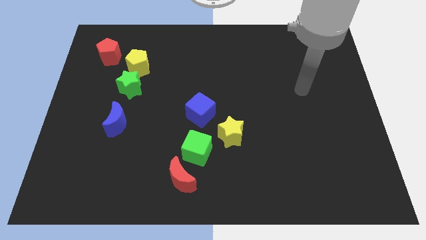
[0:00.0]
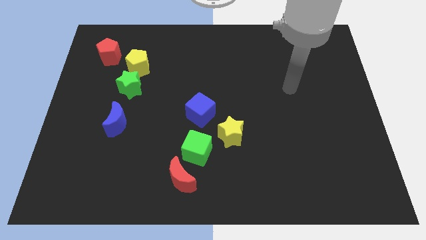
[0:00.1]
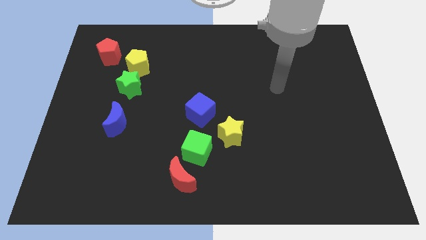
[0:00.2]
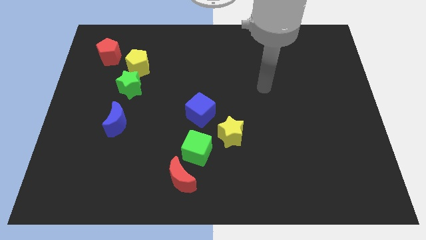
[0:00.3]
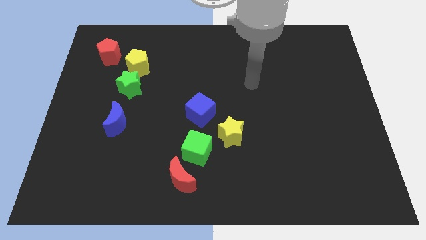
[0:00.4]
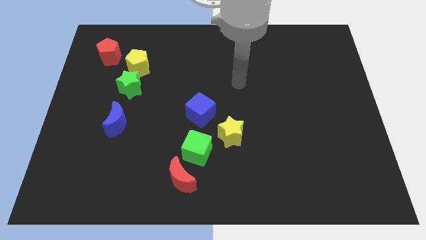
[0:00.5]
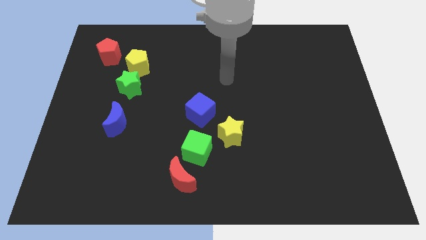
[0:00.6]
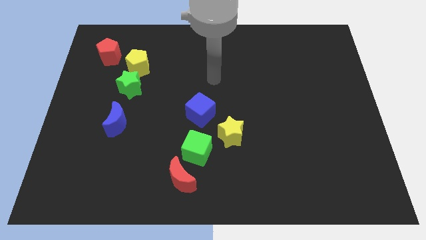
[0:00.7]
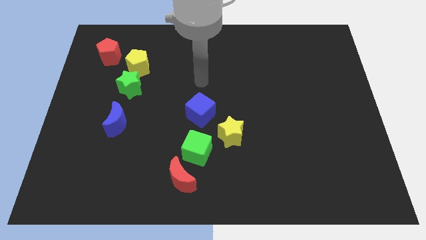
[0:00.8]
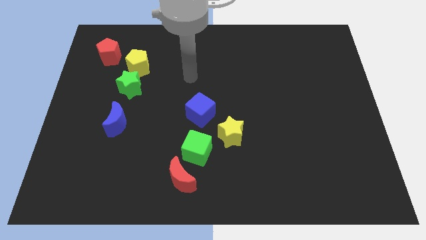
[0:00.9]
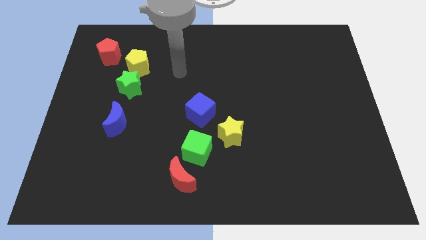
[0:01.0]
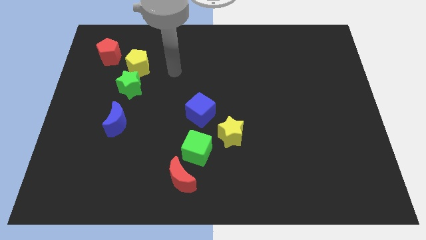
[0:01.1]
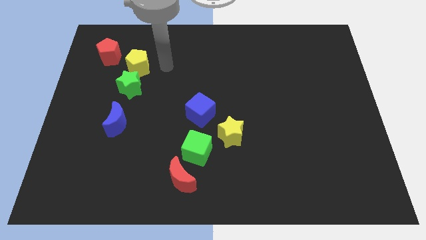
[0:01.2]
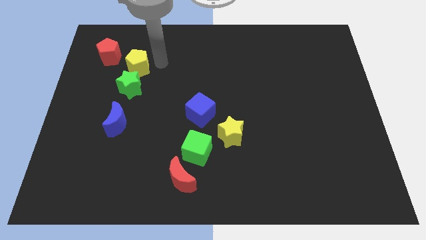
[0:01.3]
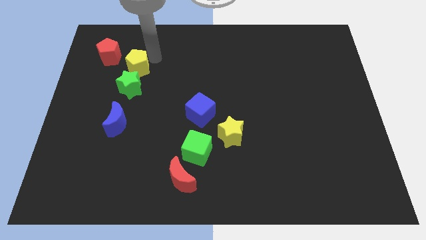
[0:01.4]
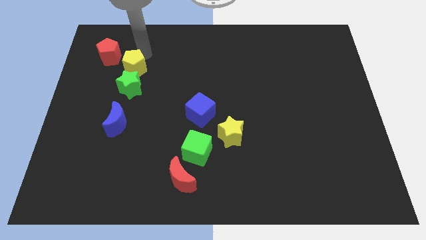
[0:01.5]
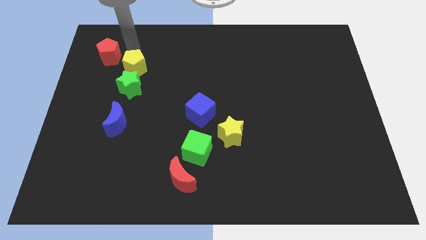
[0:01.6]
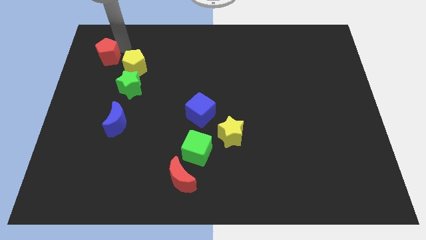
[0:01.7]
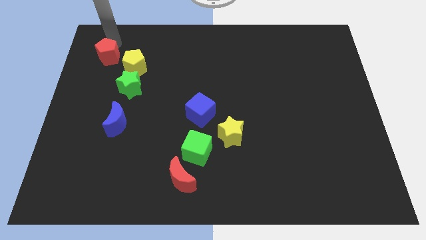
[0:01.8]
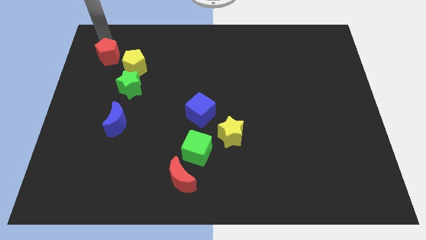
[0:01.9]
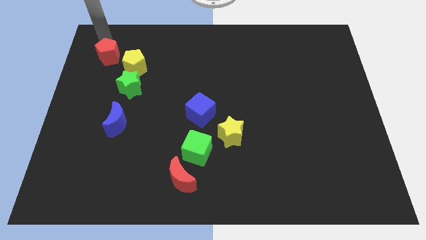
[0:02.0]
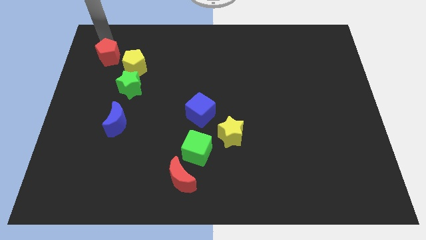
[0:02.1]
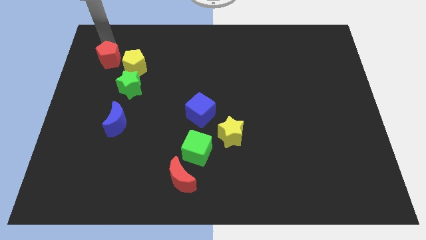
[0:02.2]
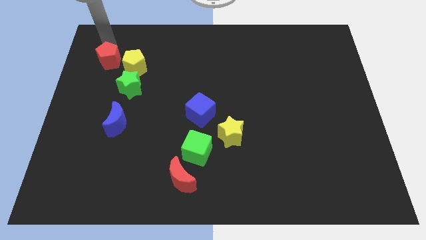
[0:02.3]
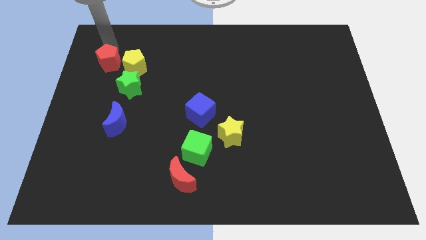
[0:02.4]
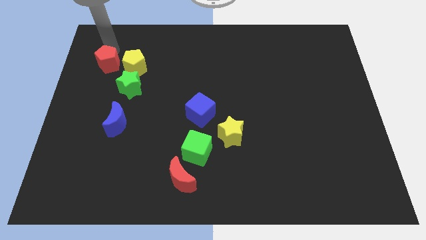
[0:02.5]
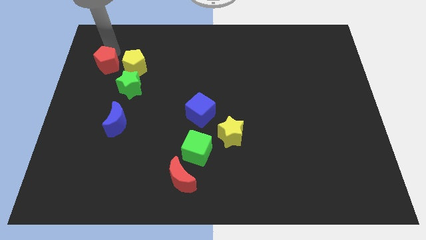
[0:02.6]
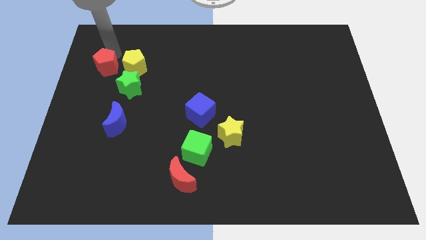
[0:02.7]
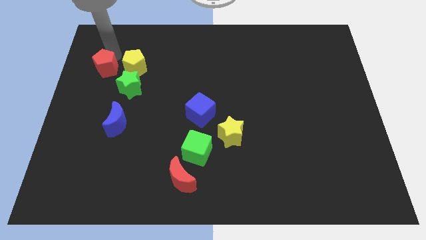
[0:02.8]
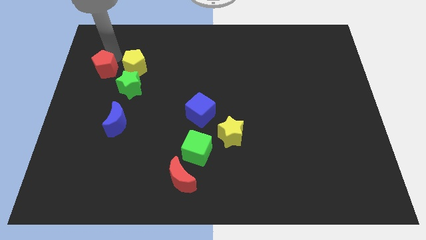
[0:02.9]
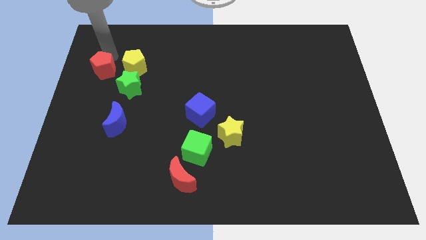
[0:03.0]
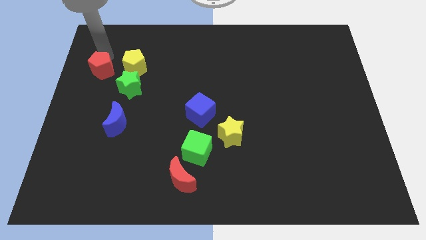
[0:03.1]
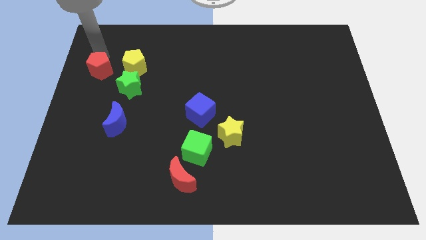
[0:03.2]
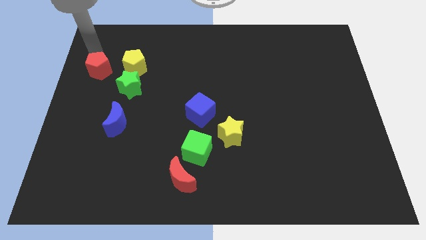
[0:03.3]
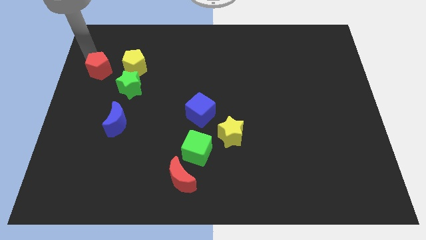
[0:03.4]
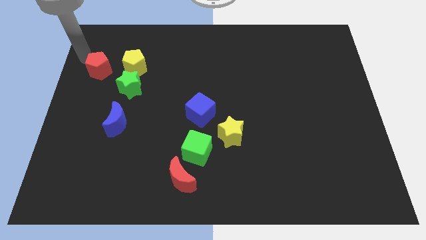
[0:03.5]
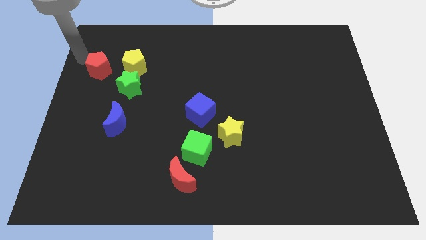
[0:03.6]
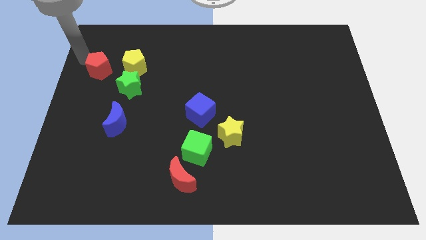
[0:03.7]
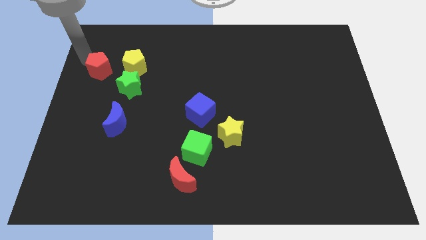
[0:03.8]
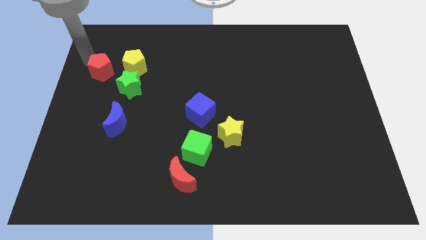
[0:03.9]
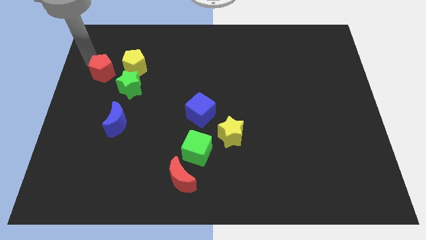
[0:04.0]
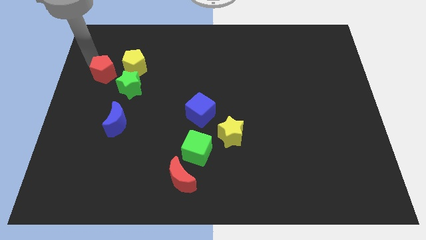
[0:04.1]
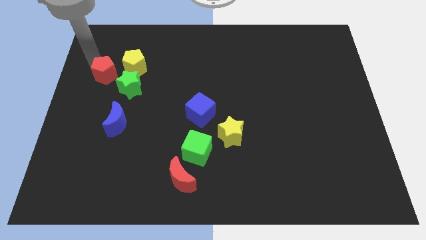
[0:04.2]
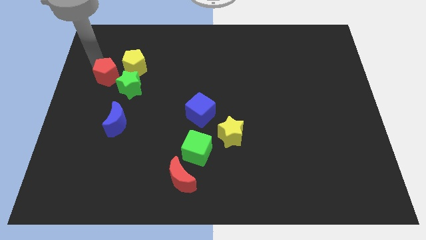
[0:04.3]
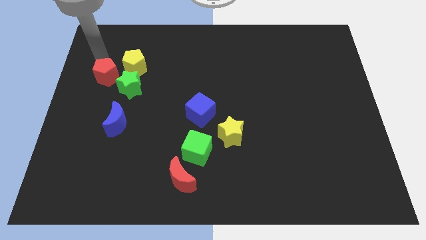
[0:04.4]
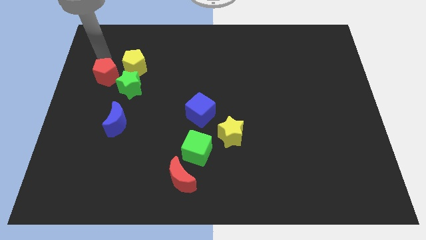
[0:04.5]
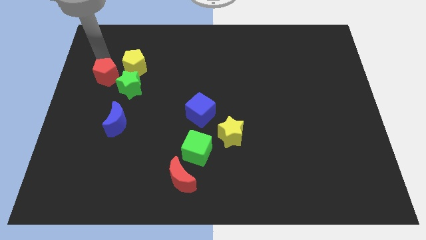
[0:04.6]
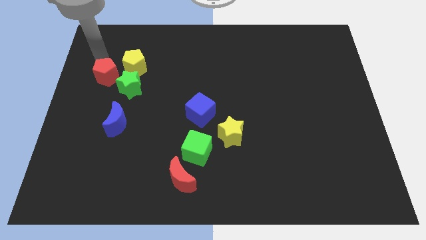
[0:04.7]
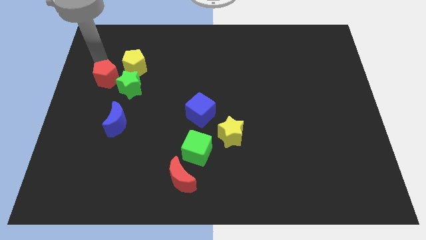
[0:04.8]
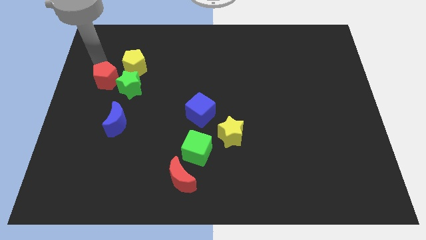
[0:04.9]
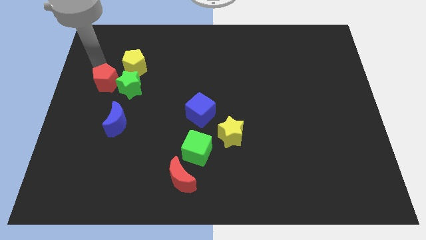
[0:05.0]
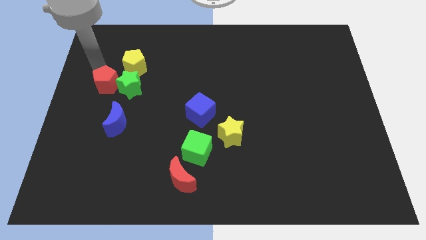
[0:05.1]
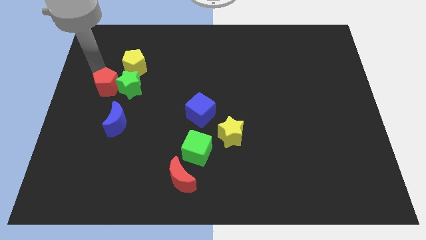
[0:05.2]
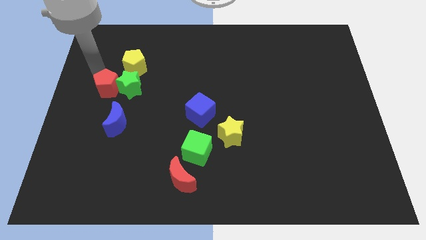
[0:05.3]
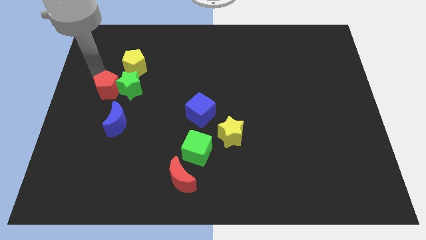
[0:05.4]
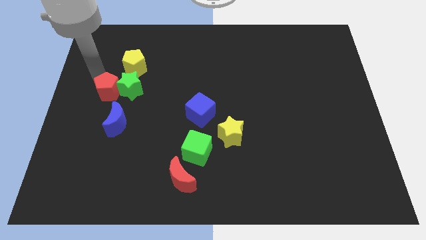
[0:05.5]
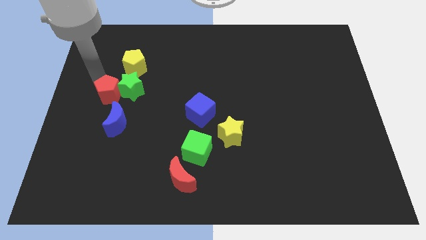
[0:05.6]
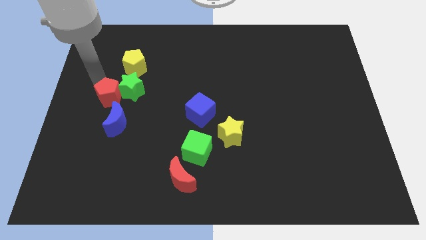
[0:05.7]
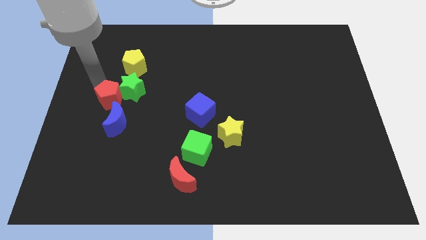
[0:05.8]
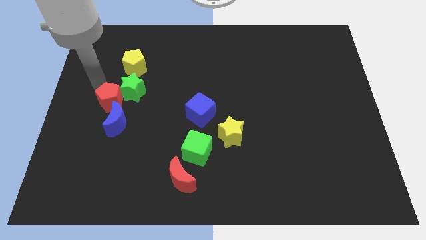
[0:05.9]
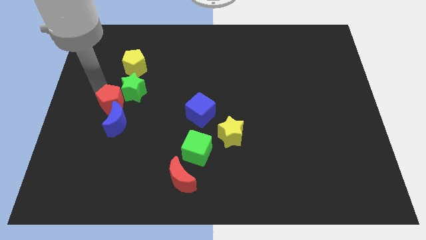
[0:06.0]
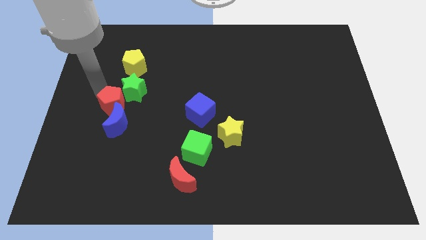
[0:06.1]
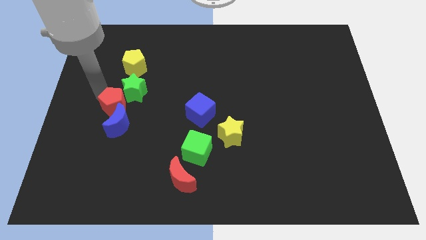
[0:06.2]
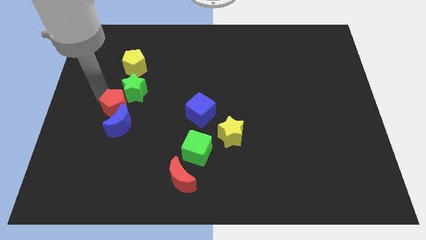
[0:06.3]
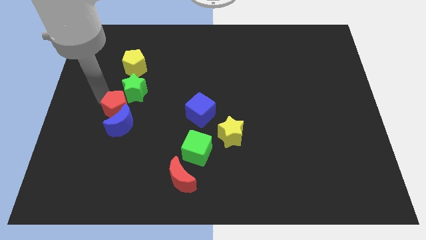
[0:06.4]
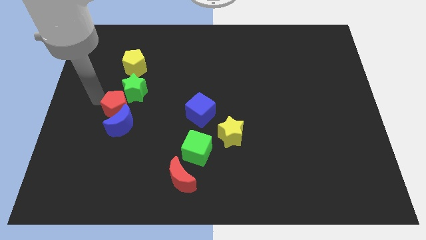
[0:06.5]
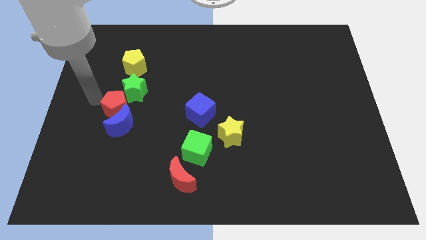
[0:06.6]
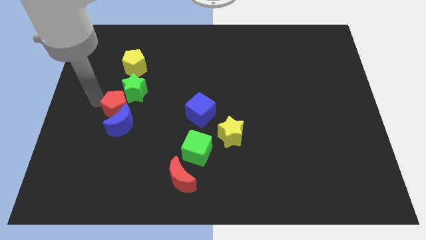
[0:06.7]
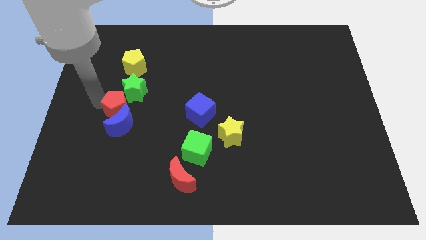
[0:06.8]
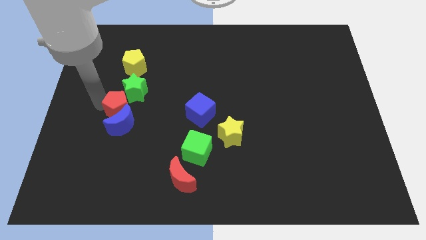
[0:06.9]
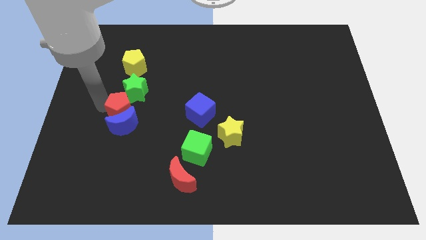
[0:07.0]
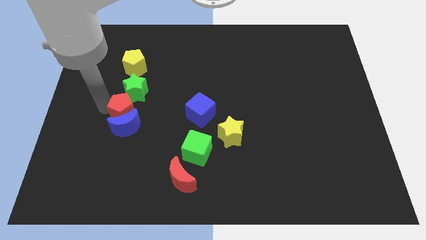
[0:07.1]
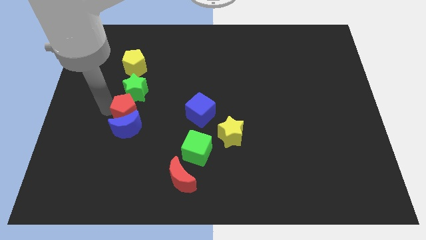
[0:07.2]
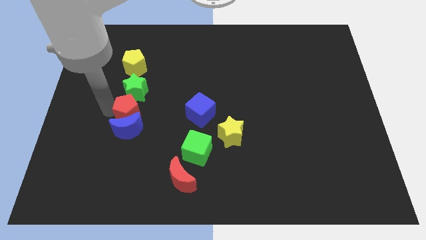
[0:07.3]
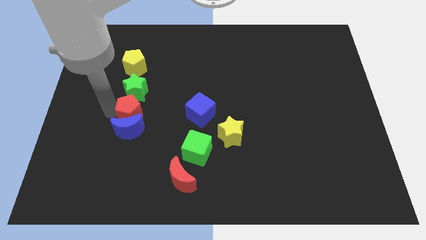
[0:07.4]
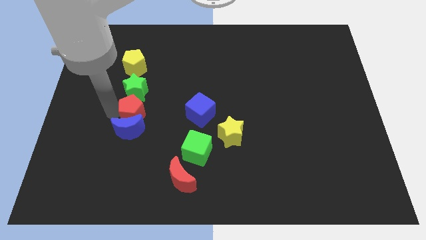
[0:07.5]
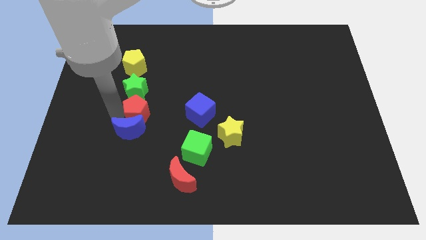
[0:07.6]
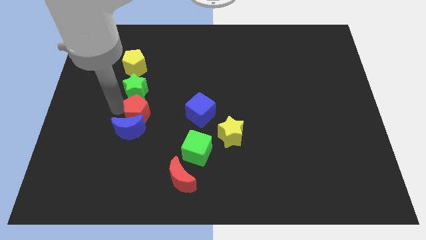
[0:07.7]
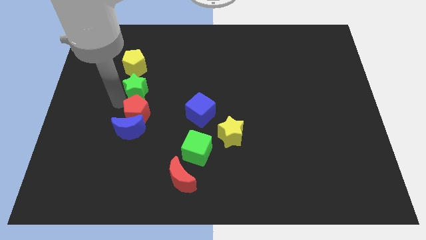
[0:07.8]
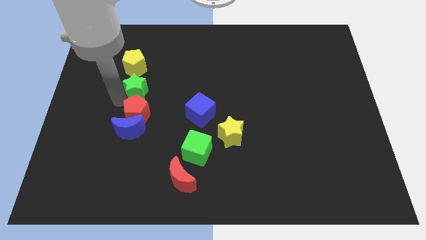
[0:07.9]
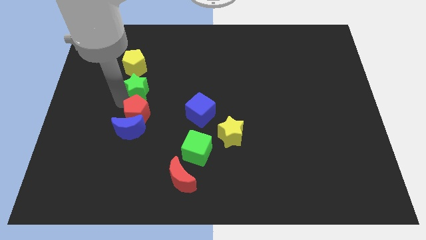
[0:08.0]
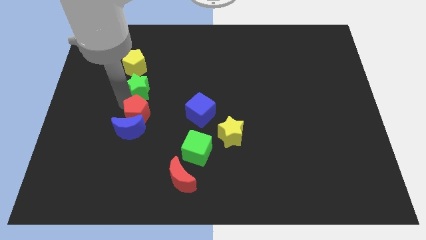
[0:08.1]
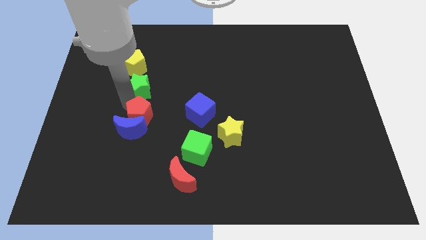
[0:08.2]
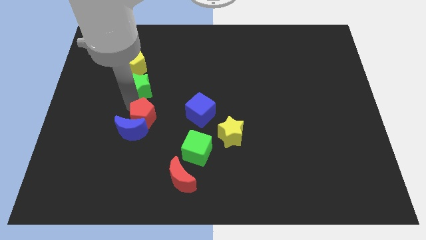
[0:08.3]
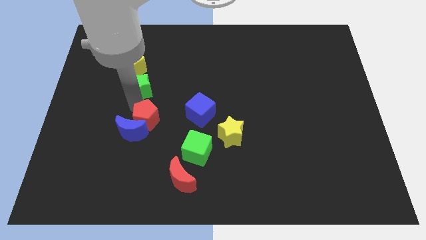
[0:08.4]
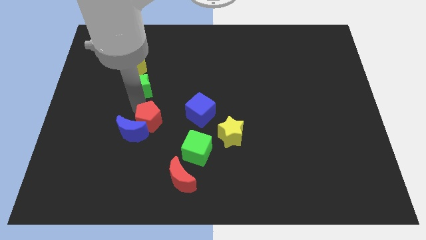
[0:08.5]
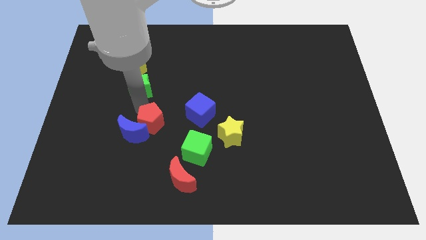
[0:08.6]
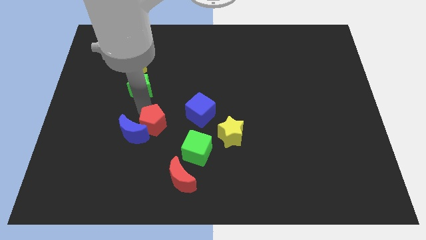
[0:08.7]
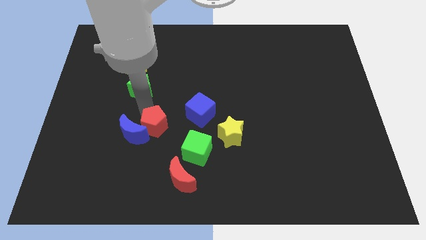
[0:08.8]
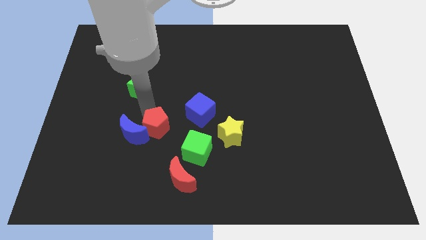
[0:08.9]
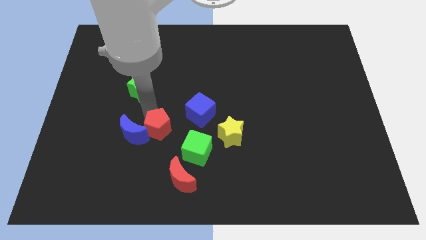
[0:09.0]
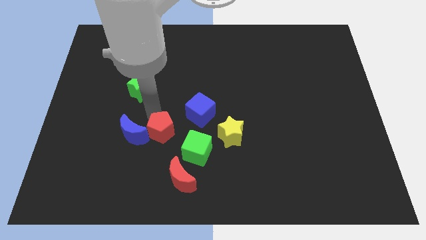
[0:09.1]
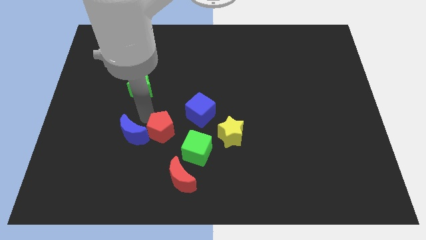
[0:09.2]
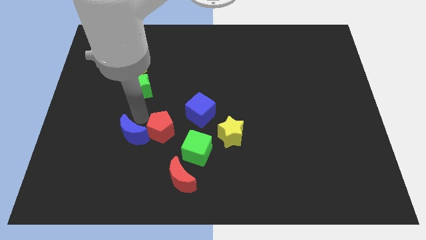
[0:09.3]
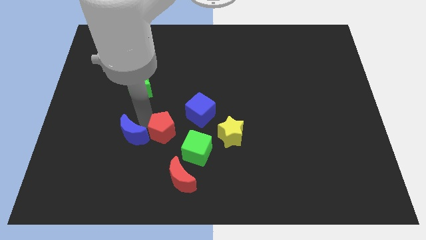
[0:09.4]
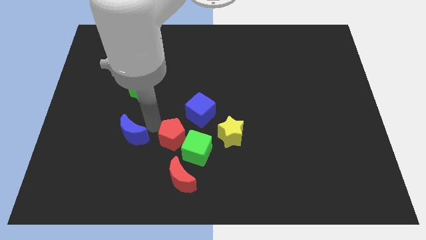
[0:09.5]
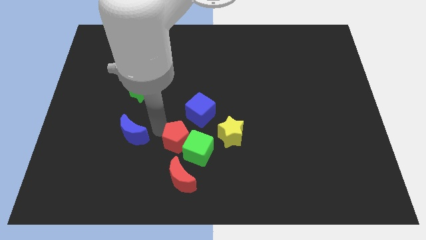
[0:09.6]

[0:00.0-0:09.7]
move the red pentagon next to the green cube
